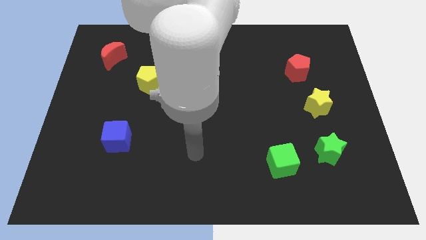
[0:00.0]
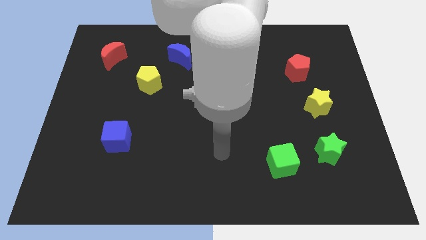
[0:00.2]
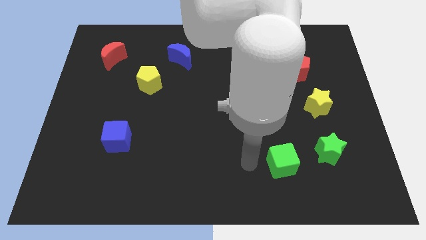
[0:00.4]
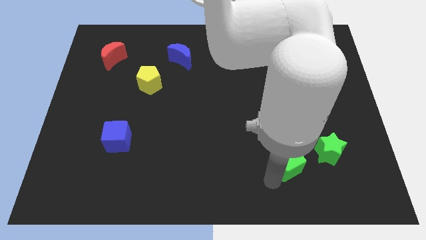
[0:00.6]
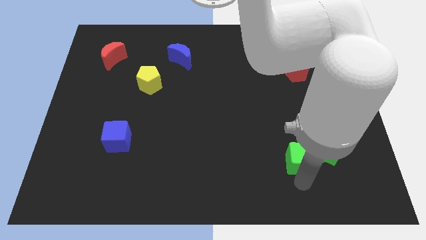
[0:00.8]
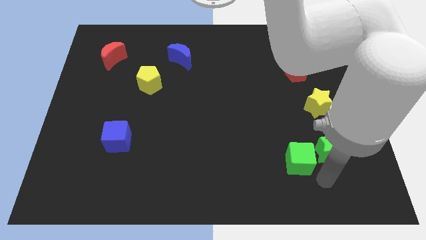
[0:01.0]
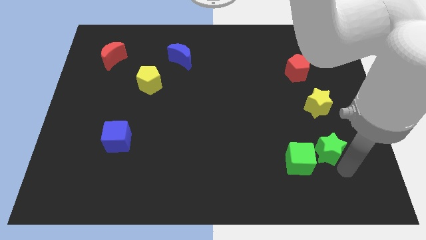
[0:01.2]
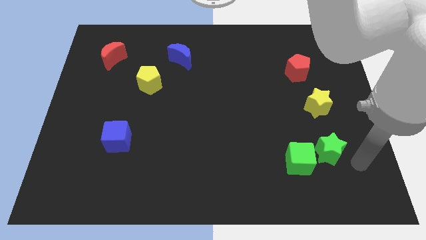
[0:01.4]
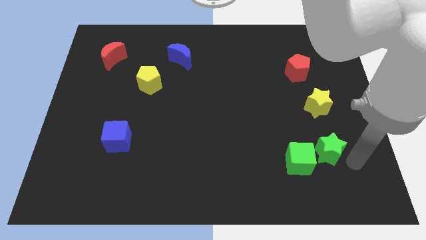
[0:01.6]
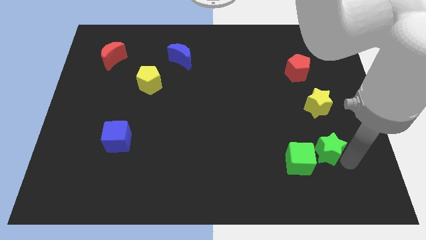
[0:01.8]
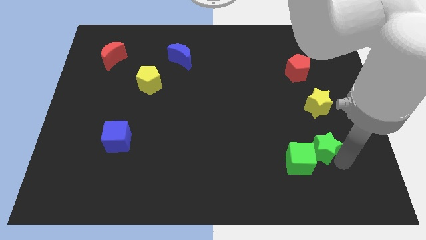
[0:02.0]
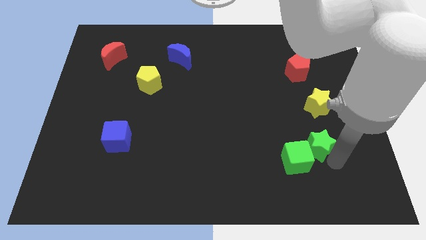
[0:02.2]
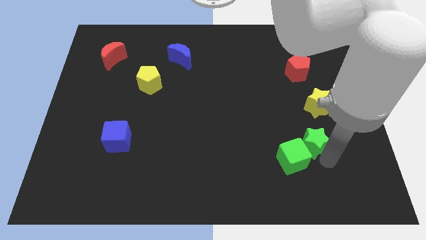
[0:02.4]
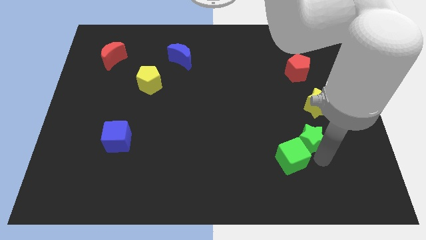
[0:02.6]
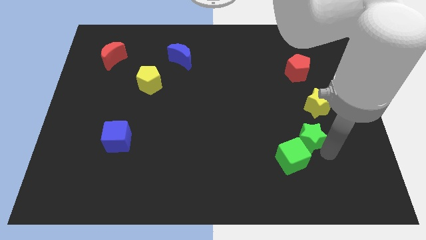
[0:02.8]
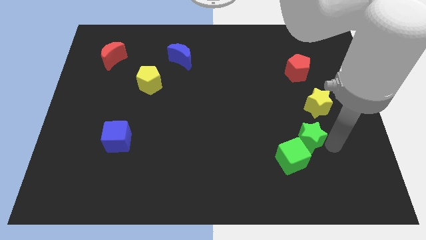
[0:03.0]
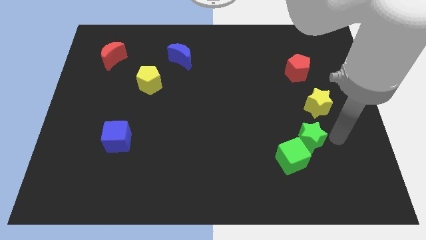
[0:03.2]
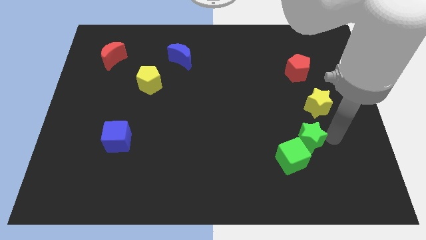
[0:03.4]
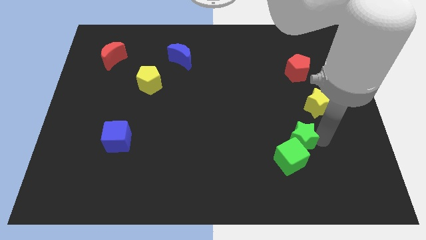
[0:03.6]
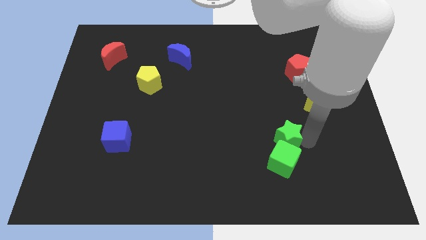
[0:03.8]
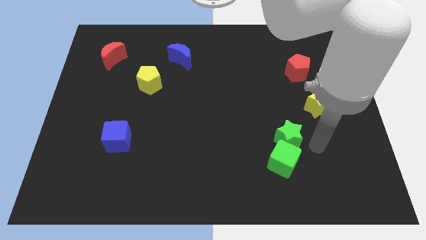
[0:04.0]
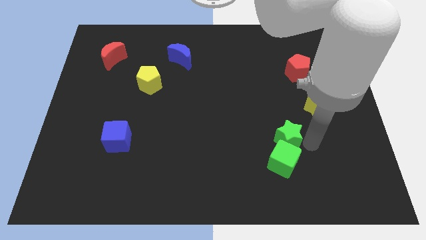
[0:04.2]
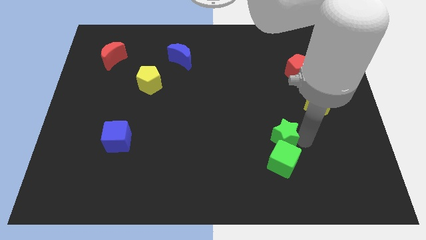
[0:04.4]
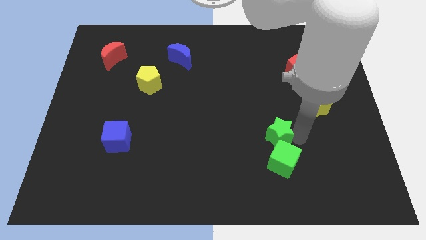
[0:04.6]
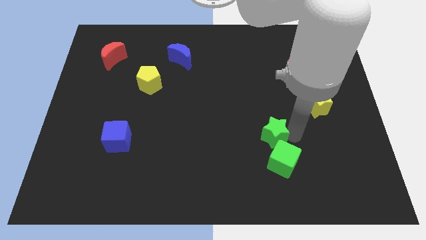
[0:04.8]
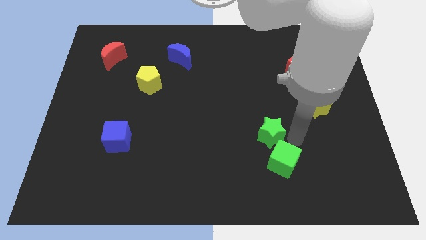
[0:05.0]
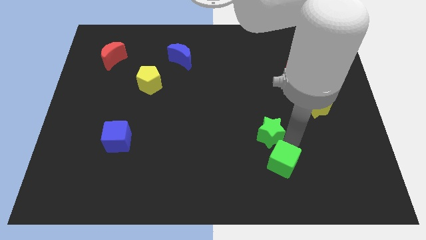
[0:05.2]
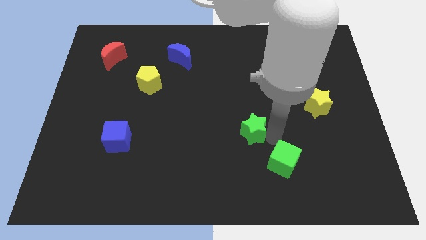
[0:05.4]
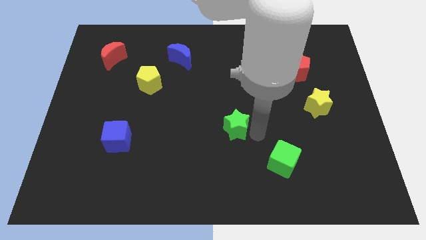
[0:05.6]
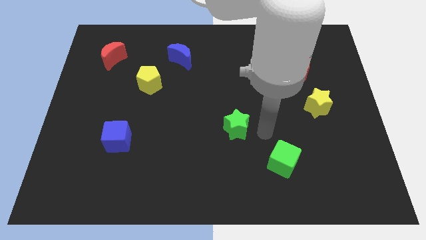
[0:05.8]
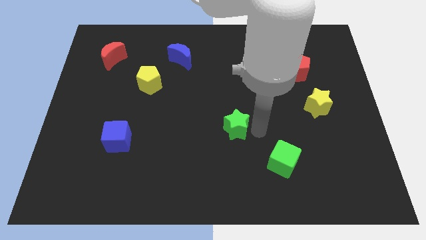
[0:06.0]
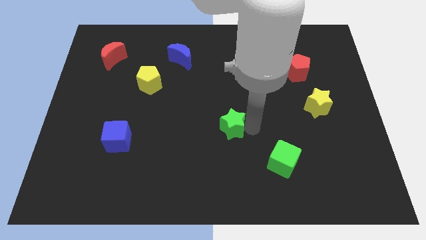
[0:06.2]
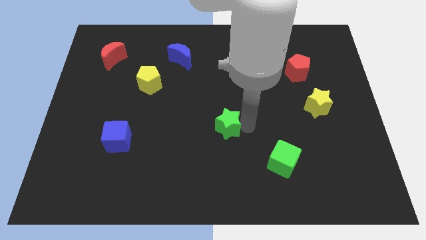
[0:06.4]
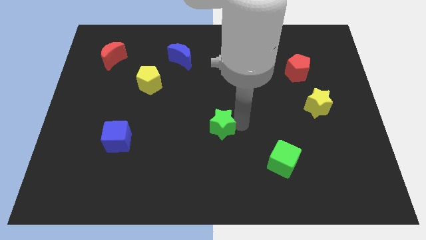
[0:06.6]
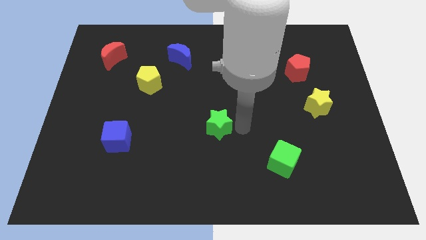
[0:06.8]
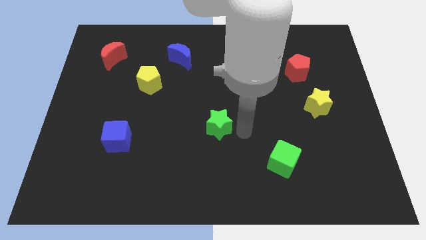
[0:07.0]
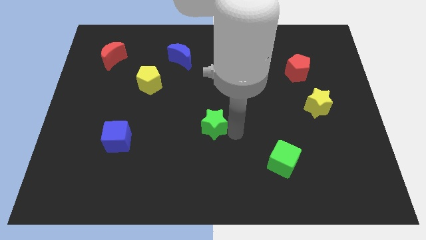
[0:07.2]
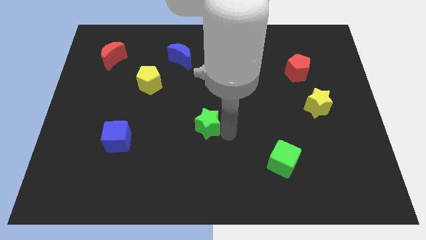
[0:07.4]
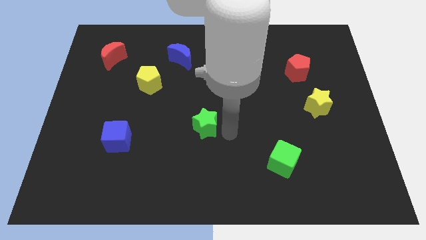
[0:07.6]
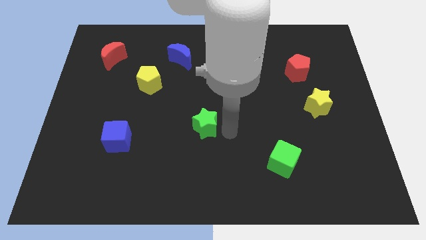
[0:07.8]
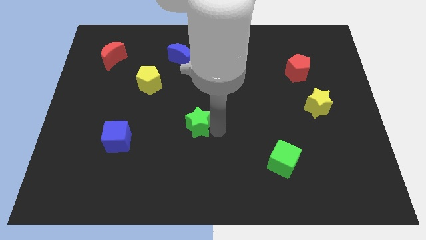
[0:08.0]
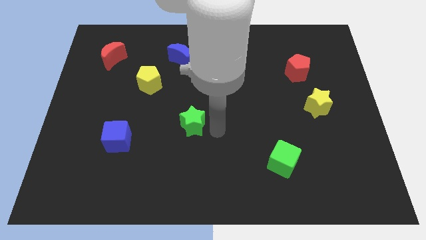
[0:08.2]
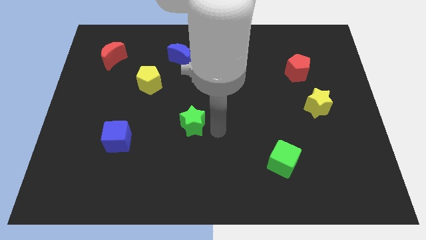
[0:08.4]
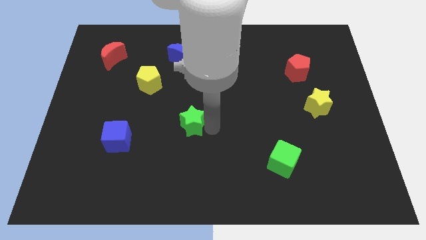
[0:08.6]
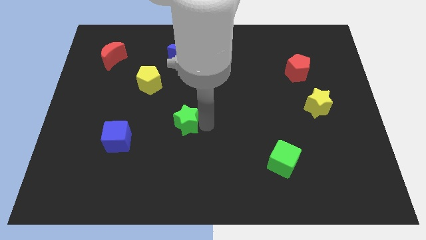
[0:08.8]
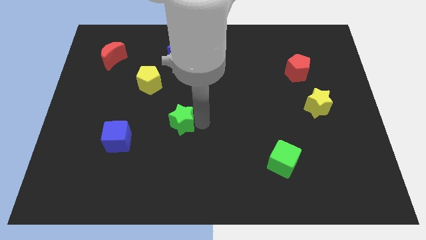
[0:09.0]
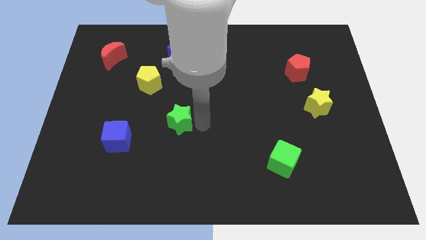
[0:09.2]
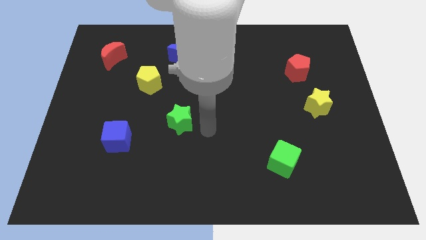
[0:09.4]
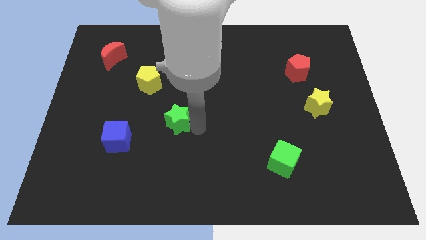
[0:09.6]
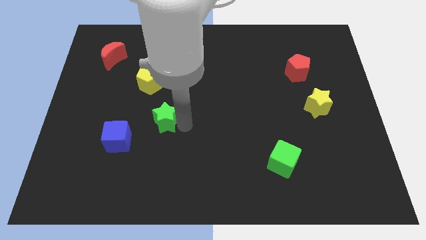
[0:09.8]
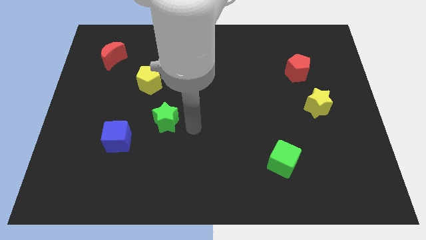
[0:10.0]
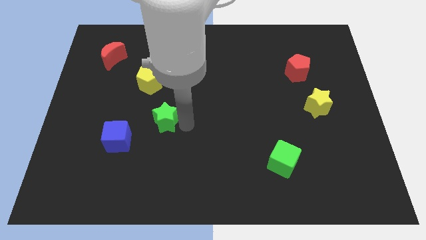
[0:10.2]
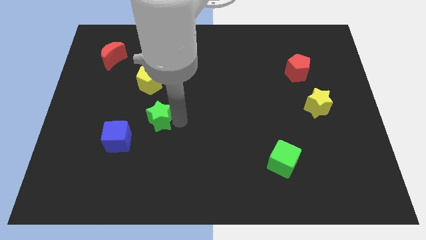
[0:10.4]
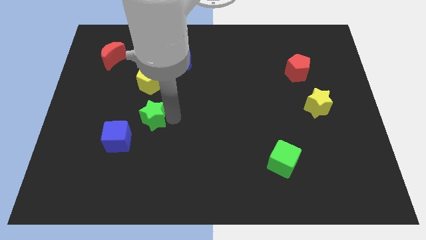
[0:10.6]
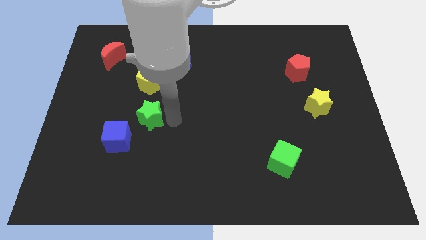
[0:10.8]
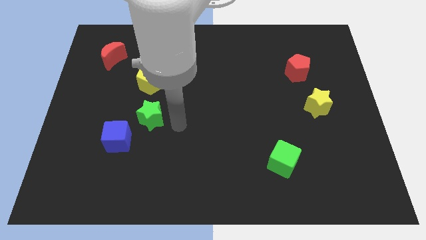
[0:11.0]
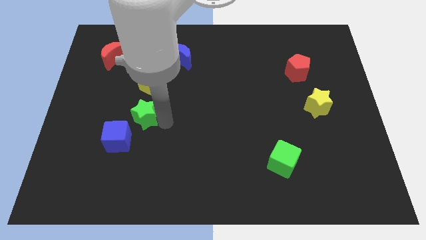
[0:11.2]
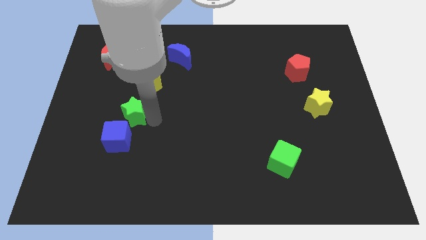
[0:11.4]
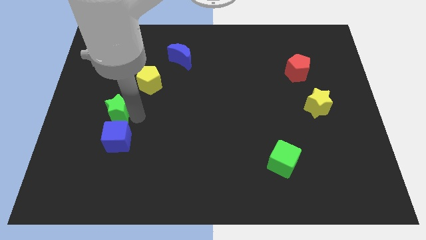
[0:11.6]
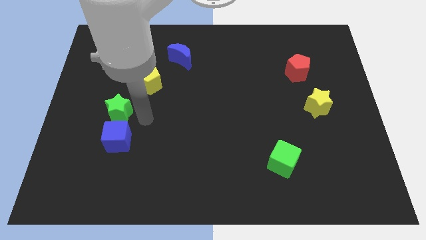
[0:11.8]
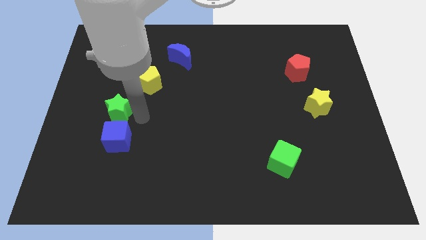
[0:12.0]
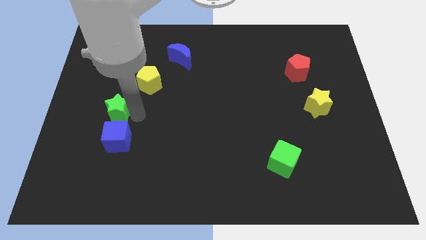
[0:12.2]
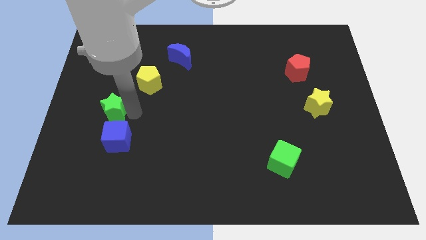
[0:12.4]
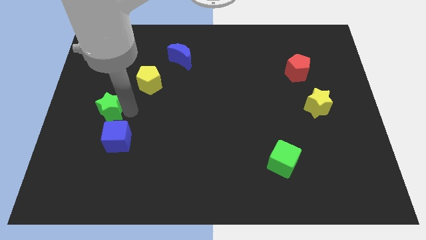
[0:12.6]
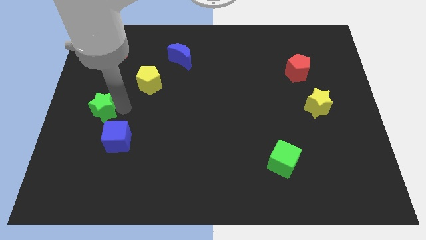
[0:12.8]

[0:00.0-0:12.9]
slide the green star to the left side of the board
